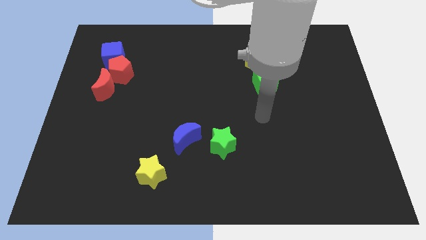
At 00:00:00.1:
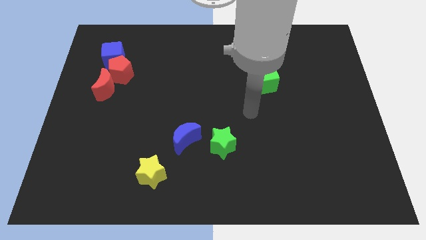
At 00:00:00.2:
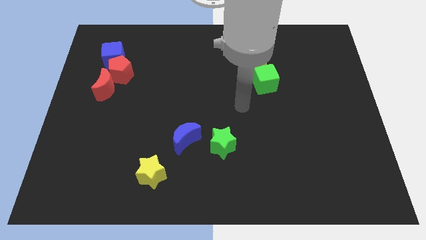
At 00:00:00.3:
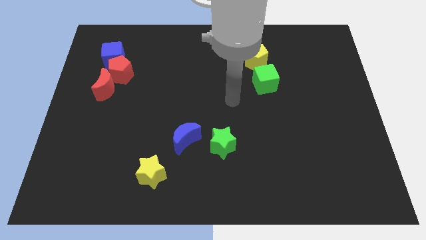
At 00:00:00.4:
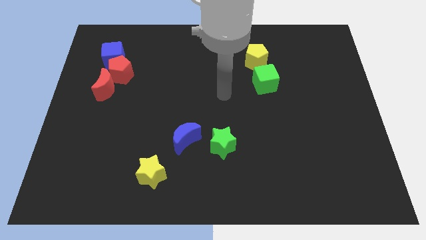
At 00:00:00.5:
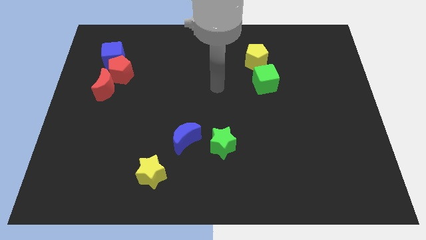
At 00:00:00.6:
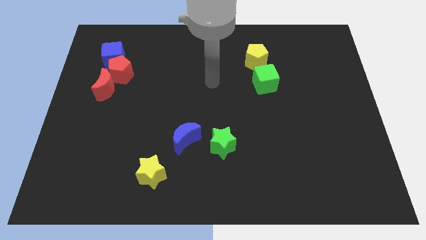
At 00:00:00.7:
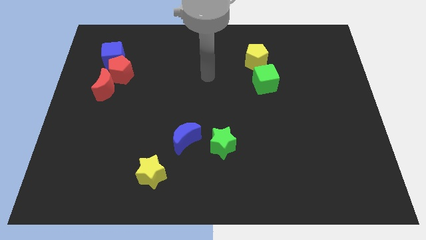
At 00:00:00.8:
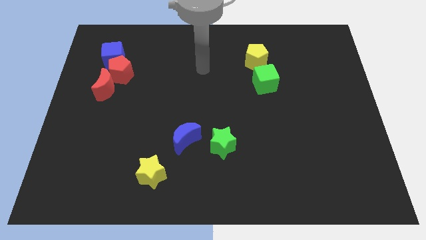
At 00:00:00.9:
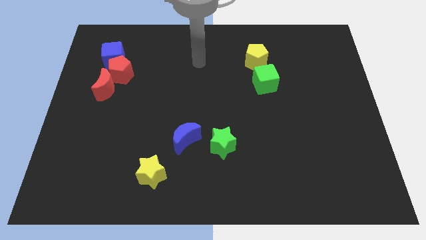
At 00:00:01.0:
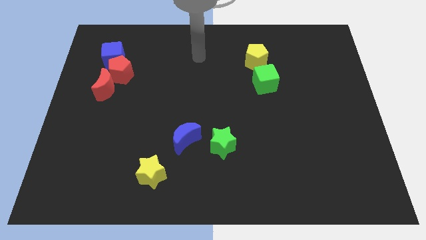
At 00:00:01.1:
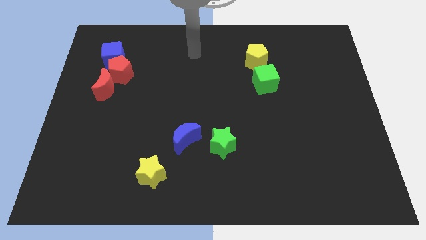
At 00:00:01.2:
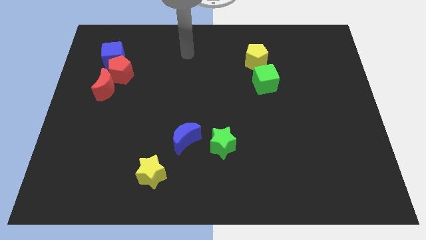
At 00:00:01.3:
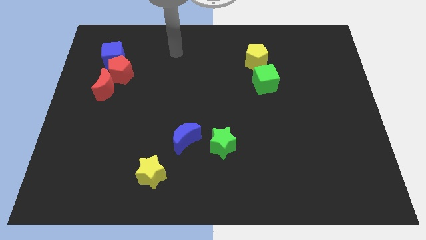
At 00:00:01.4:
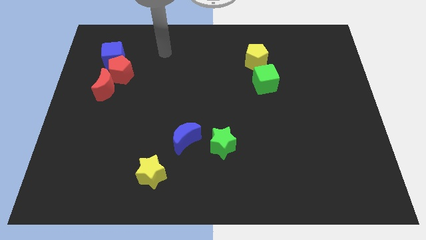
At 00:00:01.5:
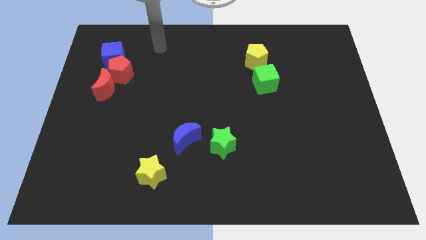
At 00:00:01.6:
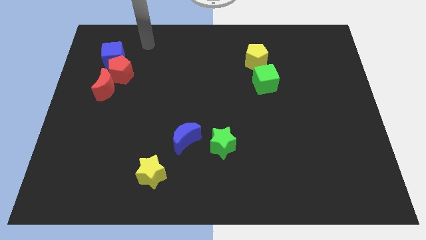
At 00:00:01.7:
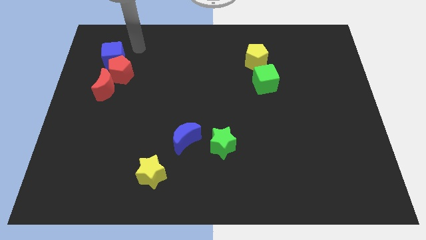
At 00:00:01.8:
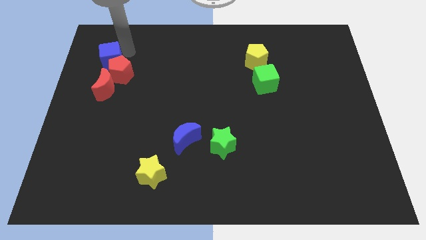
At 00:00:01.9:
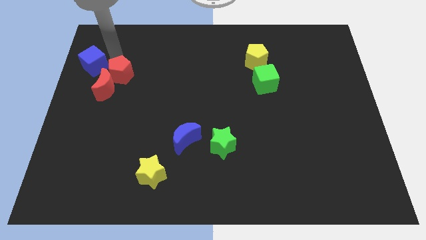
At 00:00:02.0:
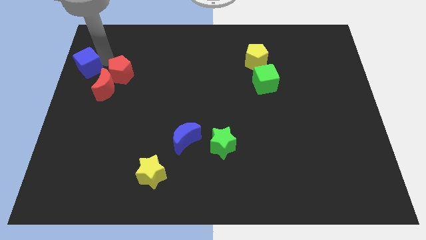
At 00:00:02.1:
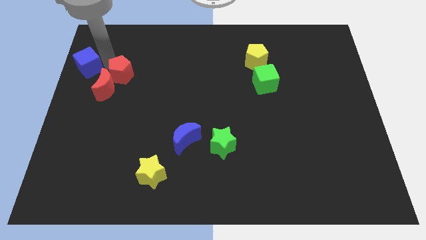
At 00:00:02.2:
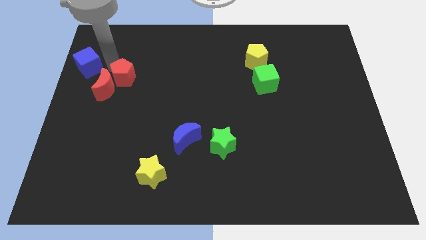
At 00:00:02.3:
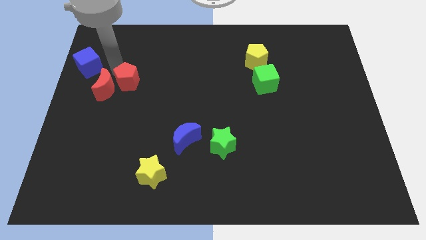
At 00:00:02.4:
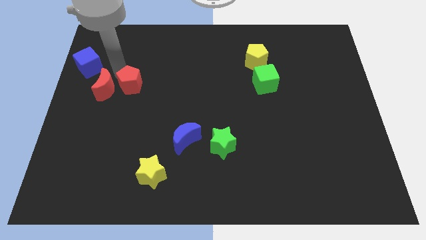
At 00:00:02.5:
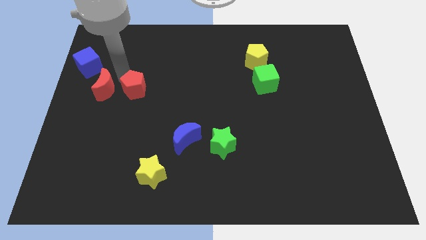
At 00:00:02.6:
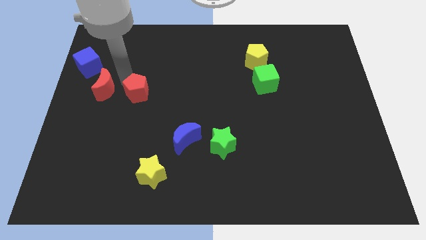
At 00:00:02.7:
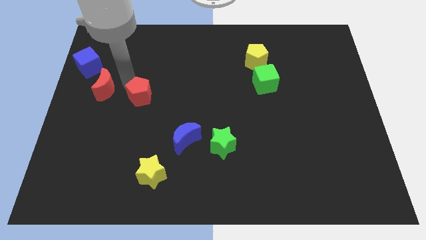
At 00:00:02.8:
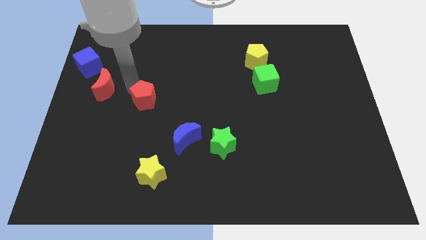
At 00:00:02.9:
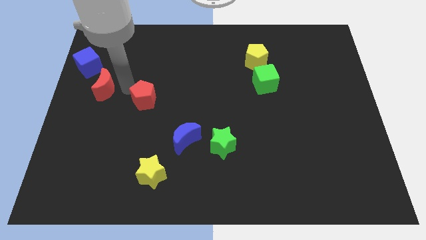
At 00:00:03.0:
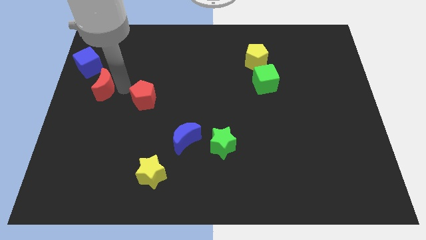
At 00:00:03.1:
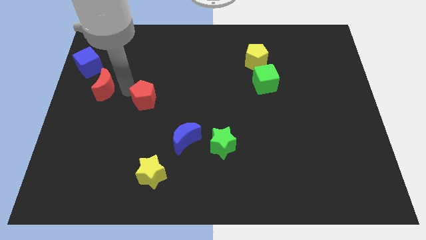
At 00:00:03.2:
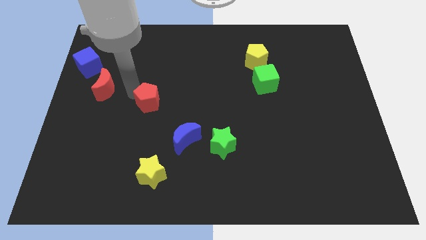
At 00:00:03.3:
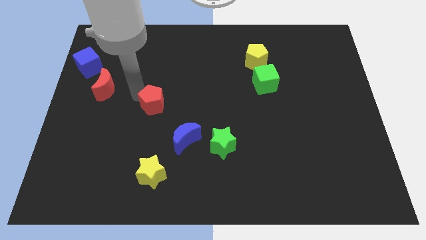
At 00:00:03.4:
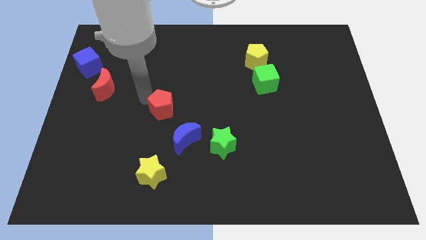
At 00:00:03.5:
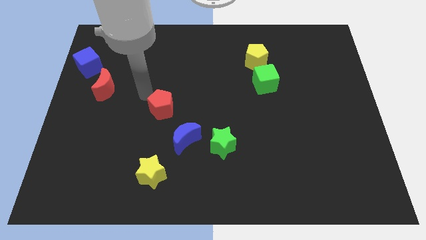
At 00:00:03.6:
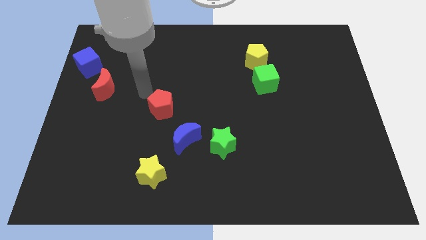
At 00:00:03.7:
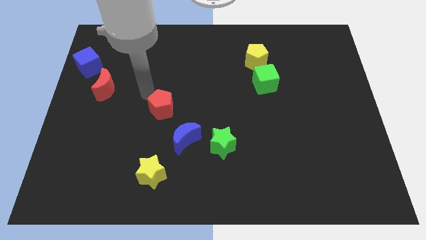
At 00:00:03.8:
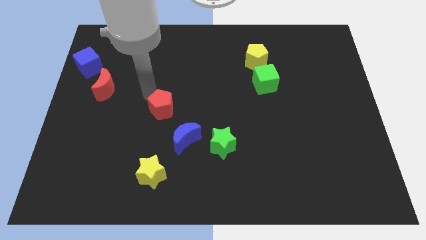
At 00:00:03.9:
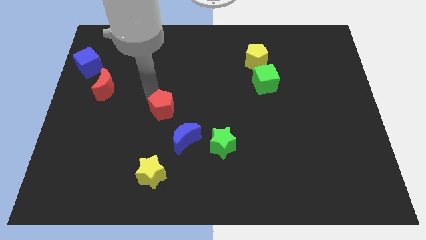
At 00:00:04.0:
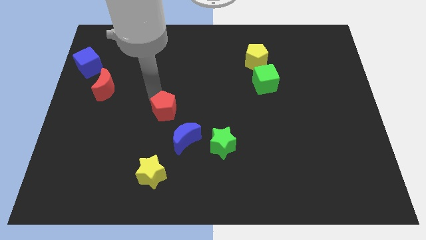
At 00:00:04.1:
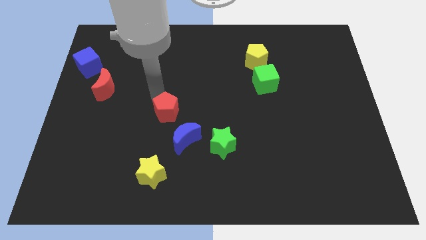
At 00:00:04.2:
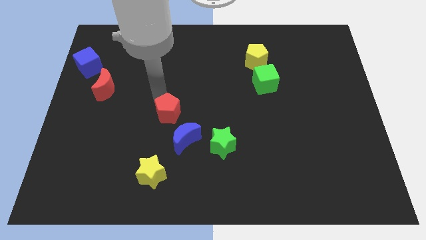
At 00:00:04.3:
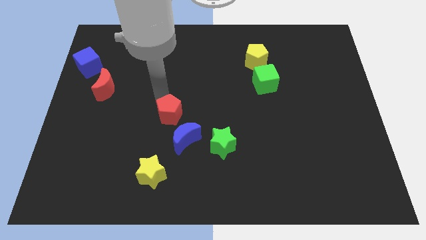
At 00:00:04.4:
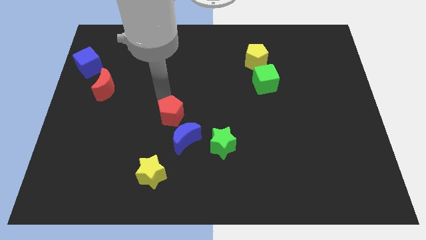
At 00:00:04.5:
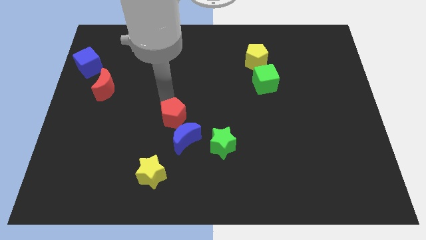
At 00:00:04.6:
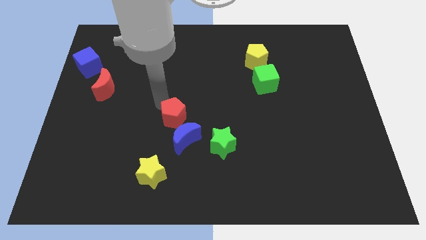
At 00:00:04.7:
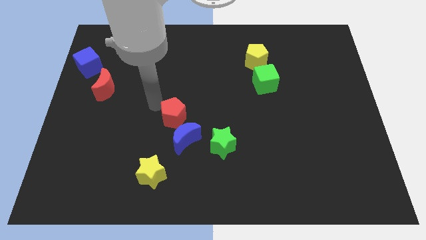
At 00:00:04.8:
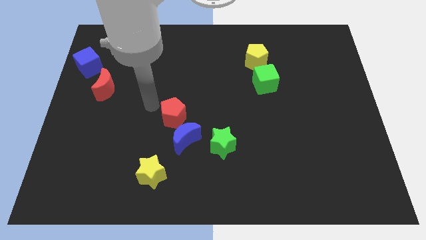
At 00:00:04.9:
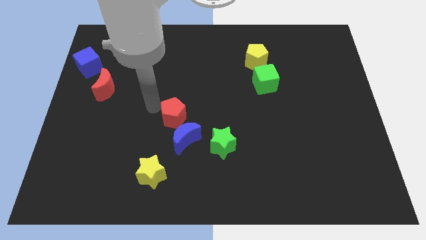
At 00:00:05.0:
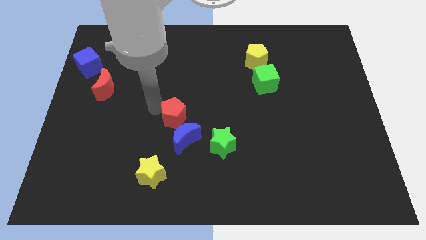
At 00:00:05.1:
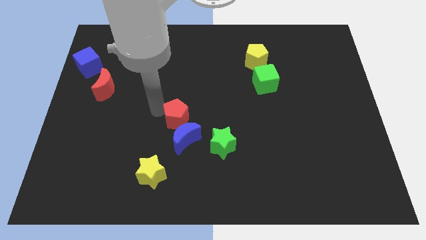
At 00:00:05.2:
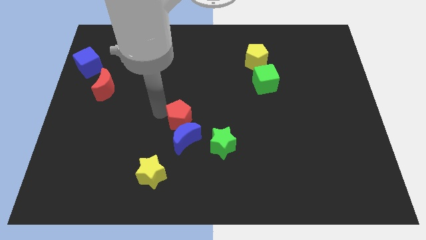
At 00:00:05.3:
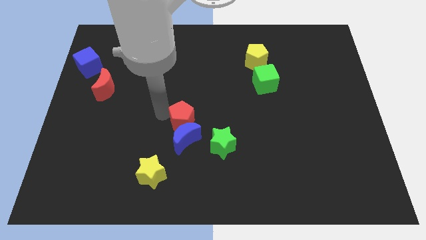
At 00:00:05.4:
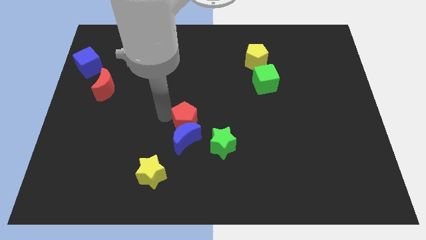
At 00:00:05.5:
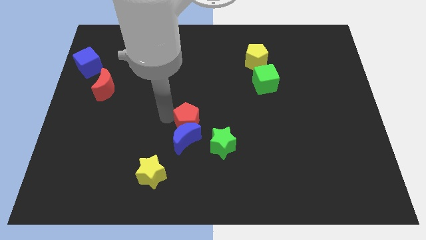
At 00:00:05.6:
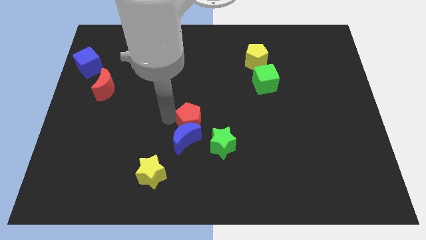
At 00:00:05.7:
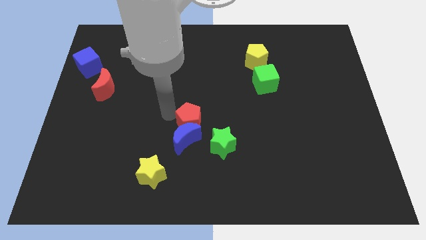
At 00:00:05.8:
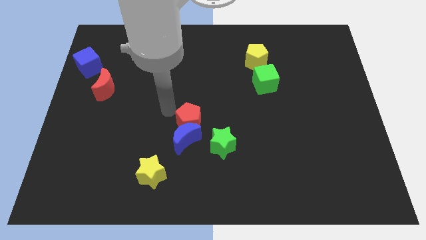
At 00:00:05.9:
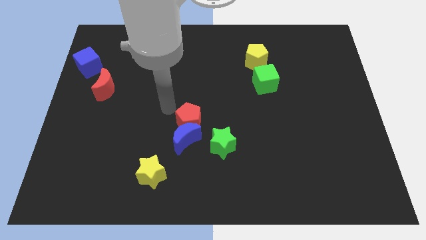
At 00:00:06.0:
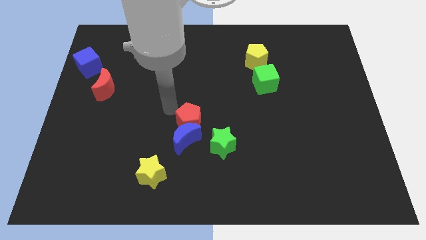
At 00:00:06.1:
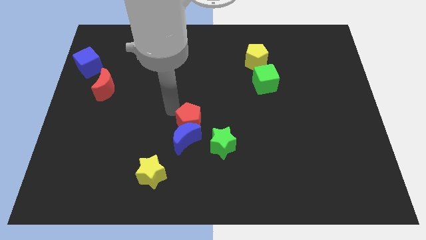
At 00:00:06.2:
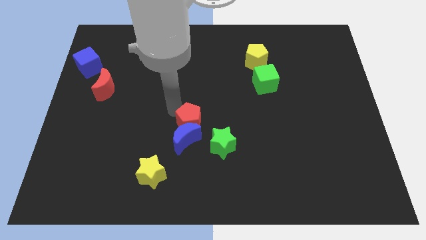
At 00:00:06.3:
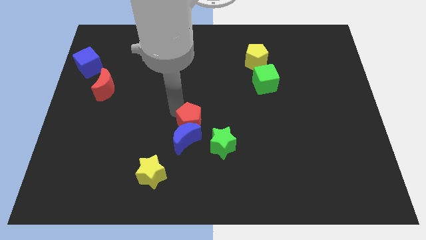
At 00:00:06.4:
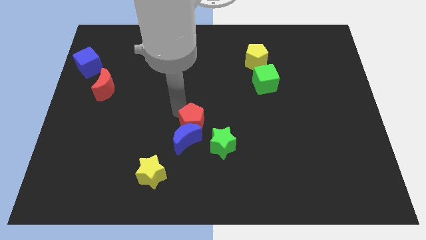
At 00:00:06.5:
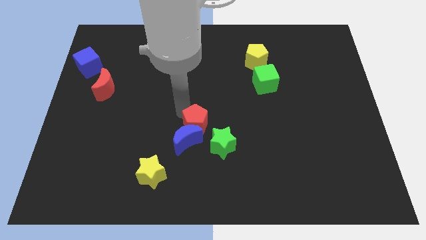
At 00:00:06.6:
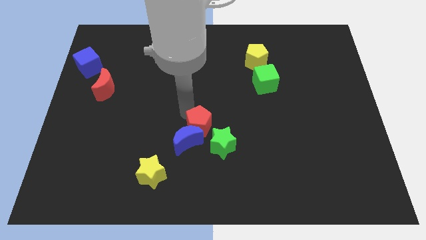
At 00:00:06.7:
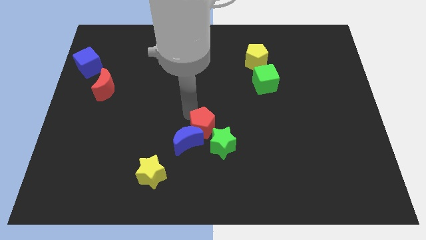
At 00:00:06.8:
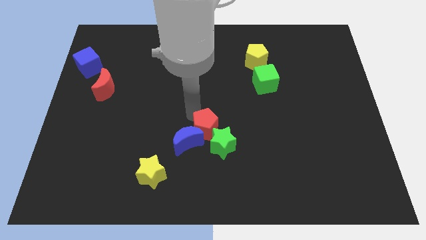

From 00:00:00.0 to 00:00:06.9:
put the red pentagon next to the green star

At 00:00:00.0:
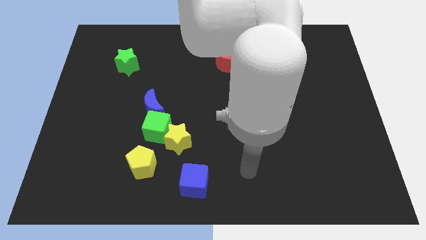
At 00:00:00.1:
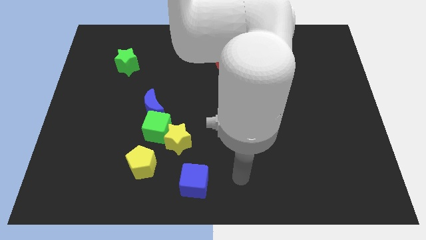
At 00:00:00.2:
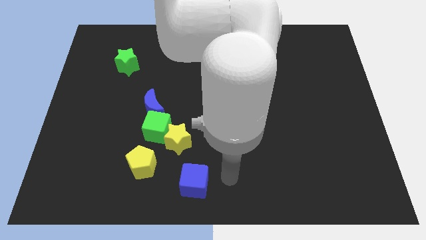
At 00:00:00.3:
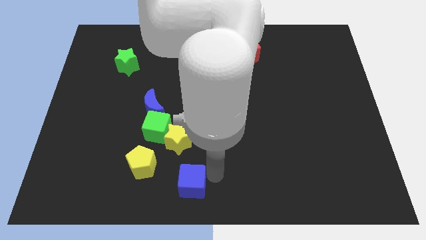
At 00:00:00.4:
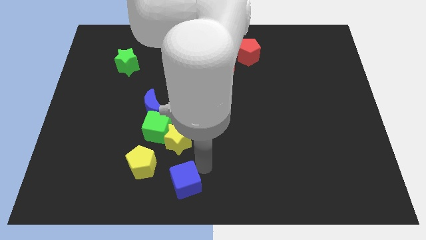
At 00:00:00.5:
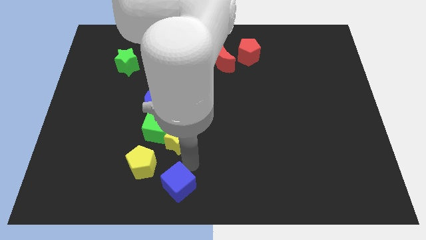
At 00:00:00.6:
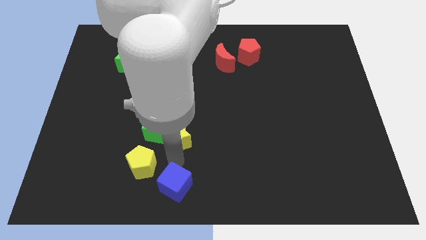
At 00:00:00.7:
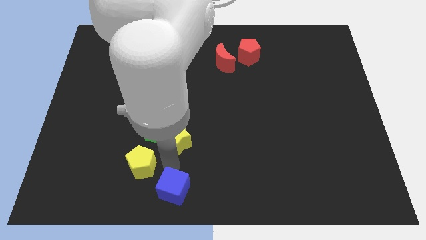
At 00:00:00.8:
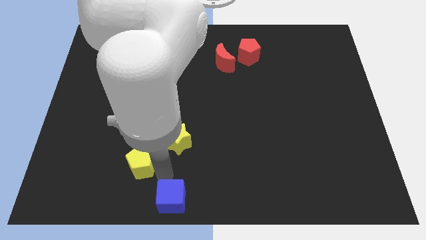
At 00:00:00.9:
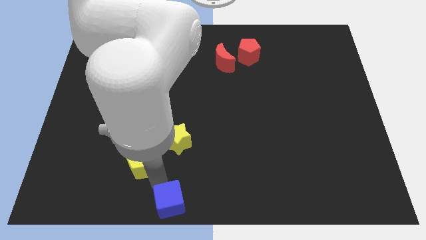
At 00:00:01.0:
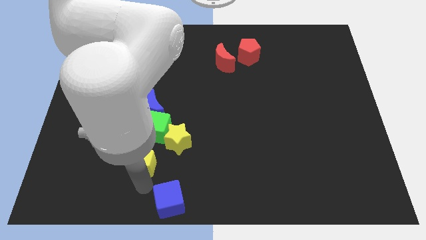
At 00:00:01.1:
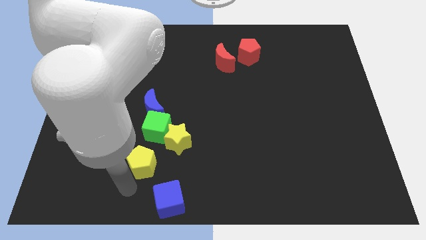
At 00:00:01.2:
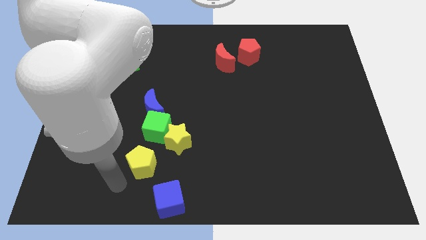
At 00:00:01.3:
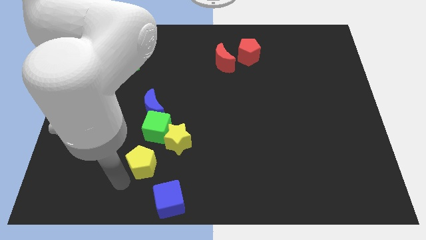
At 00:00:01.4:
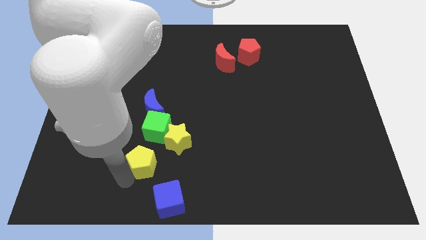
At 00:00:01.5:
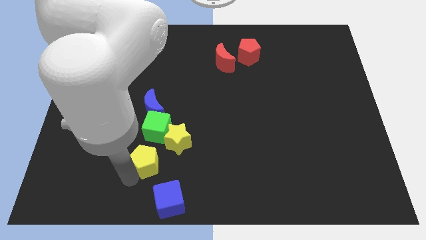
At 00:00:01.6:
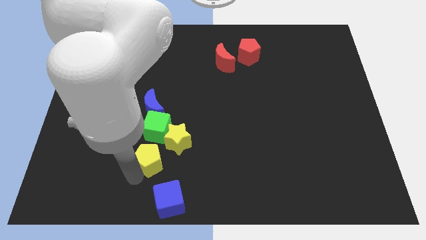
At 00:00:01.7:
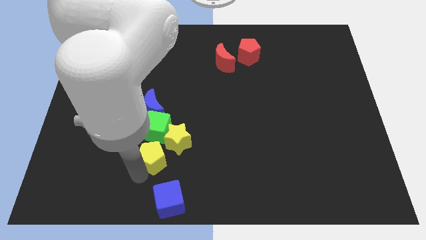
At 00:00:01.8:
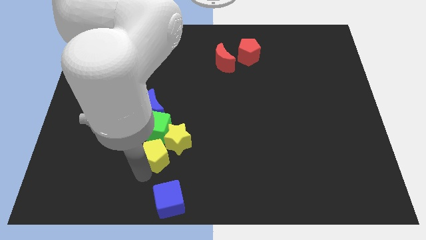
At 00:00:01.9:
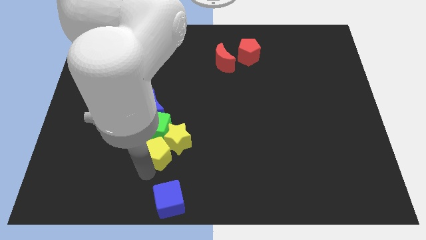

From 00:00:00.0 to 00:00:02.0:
move the yellow pentagon close to the yellow star
